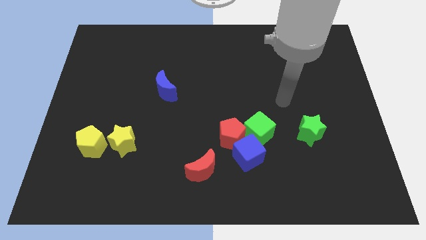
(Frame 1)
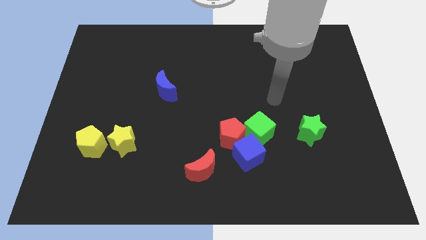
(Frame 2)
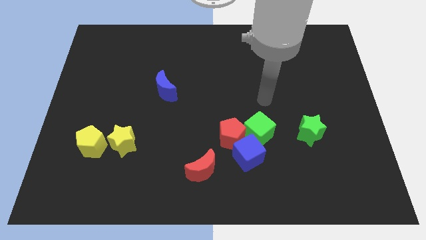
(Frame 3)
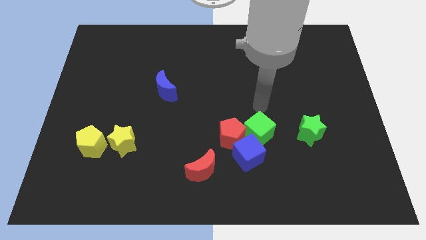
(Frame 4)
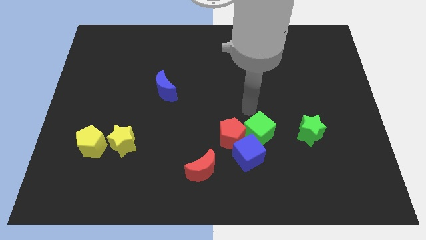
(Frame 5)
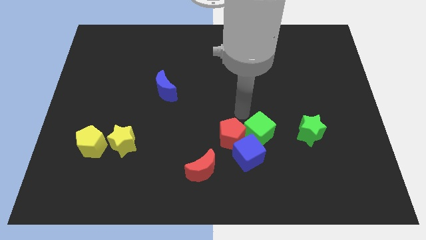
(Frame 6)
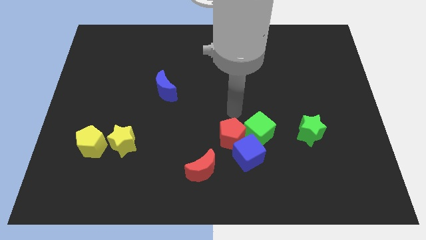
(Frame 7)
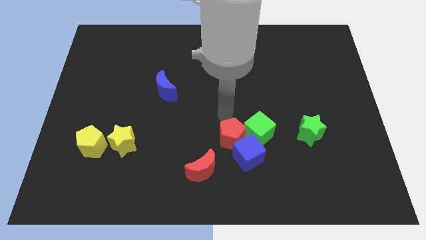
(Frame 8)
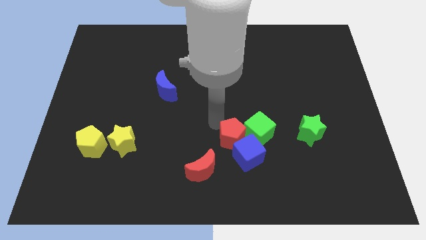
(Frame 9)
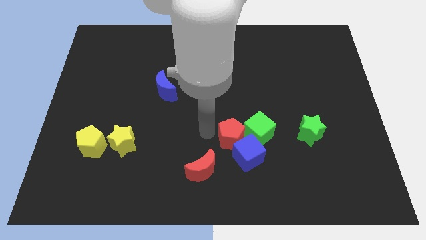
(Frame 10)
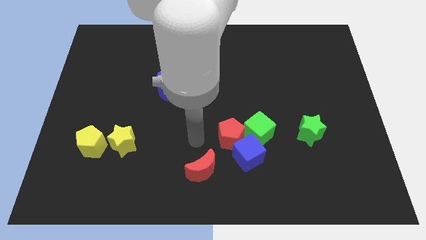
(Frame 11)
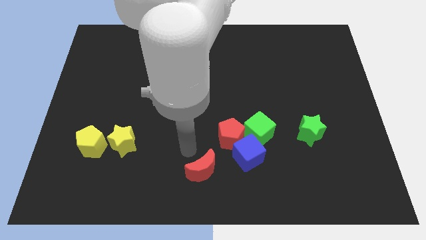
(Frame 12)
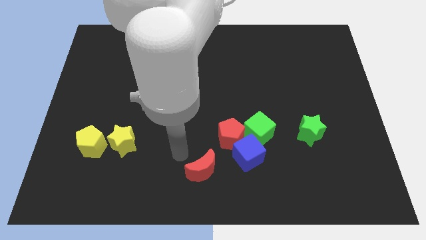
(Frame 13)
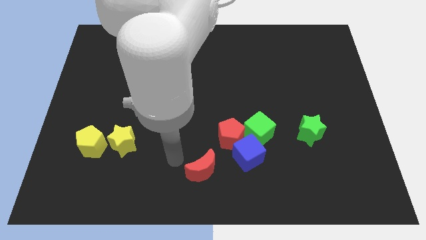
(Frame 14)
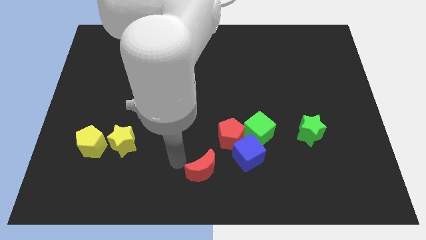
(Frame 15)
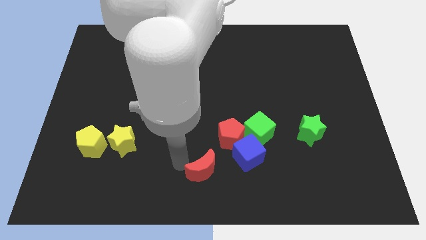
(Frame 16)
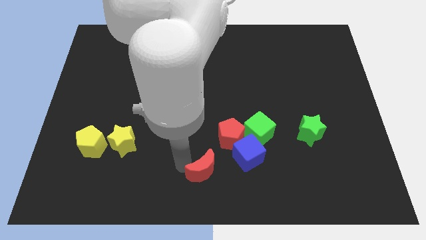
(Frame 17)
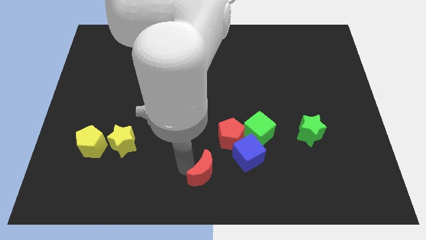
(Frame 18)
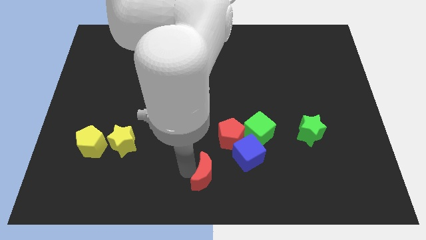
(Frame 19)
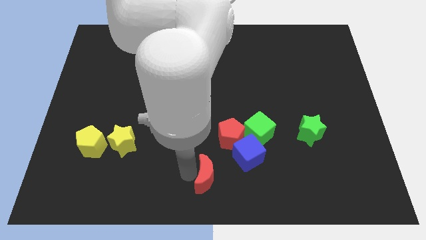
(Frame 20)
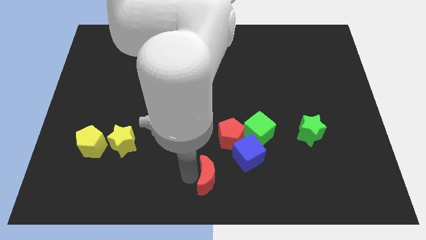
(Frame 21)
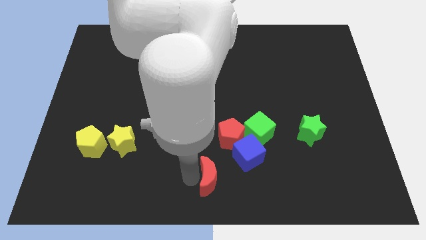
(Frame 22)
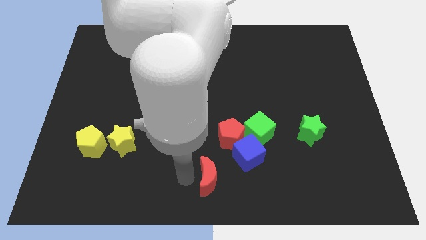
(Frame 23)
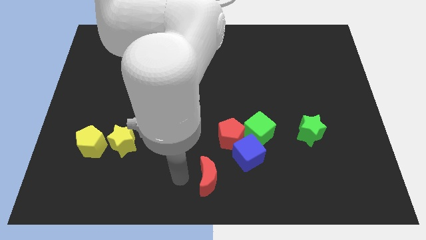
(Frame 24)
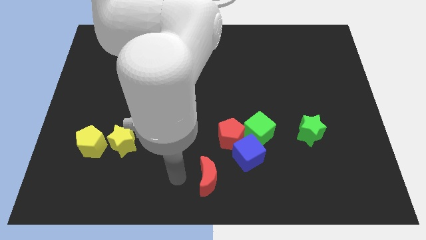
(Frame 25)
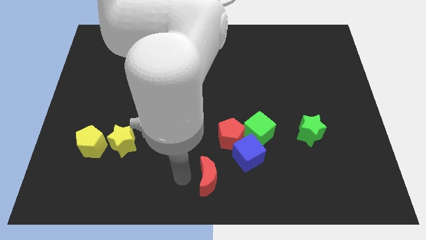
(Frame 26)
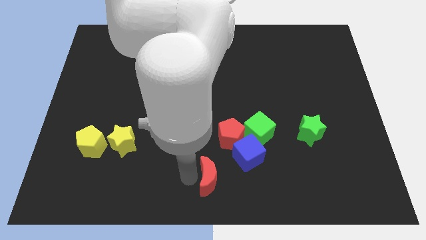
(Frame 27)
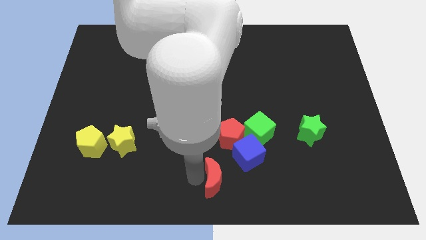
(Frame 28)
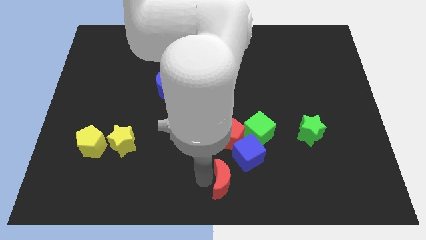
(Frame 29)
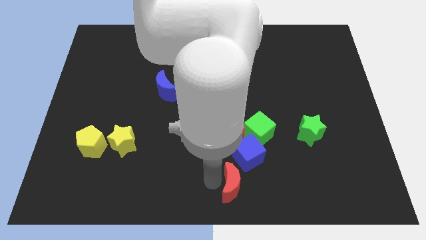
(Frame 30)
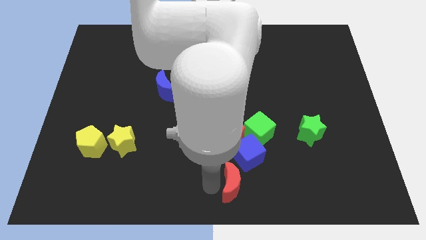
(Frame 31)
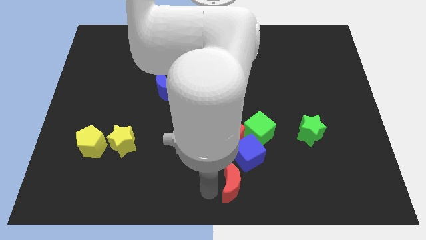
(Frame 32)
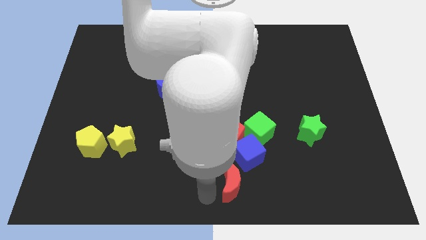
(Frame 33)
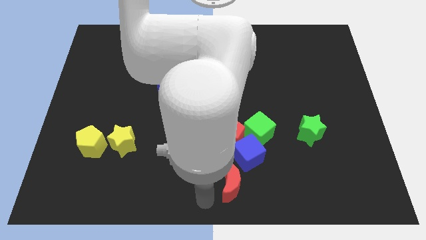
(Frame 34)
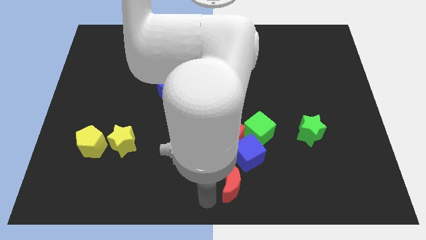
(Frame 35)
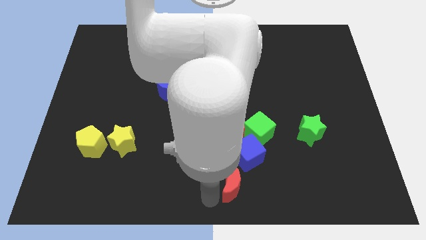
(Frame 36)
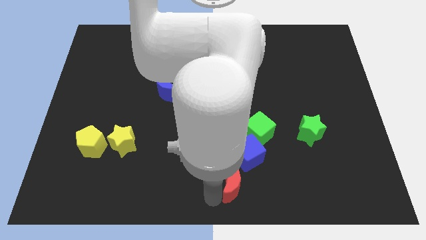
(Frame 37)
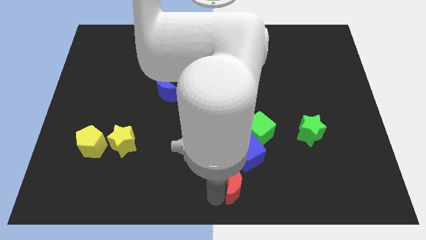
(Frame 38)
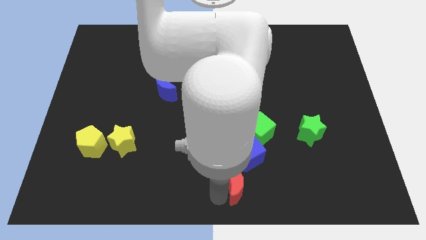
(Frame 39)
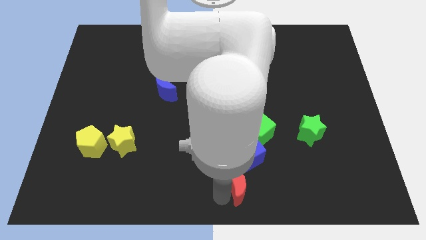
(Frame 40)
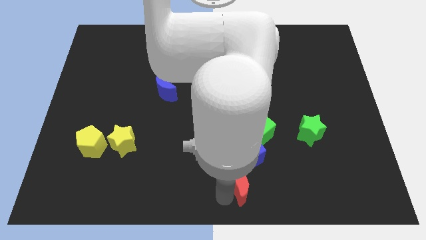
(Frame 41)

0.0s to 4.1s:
push the red moon right a little

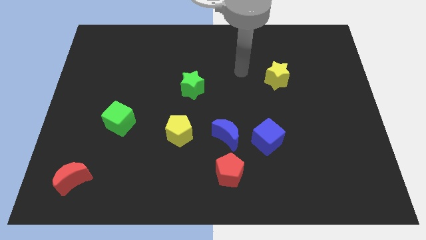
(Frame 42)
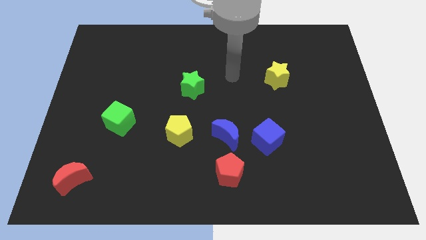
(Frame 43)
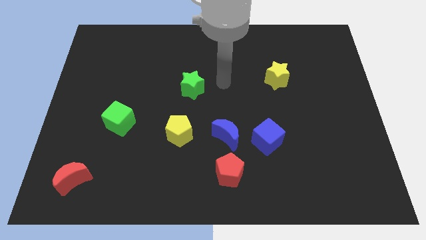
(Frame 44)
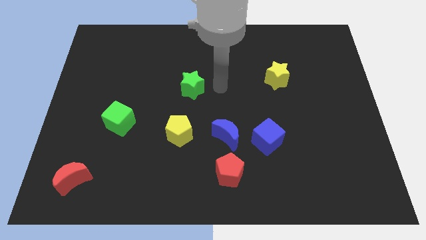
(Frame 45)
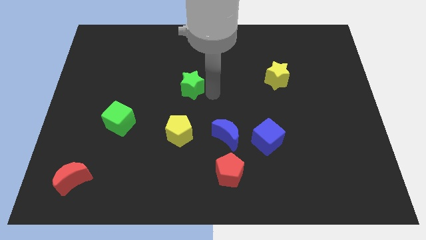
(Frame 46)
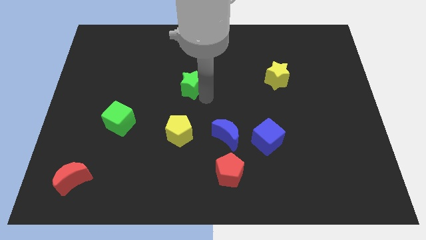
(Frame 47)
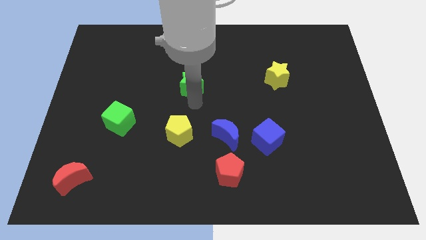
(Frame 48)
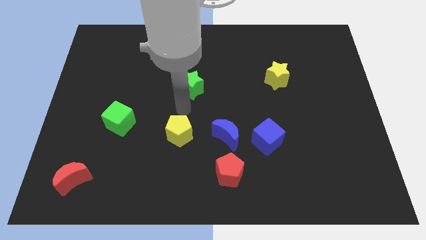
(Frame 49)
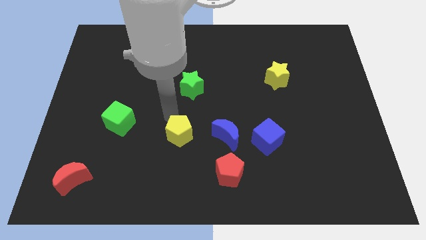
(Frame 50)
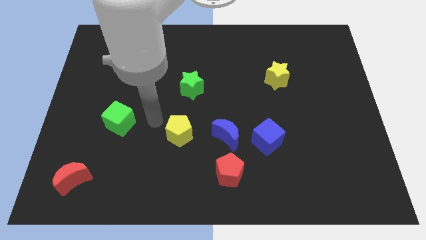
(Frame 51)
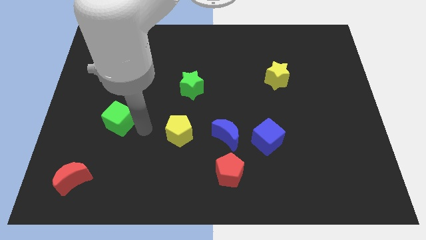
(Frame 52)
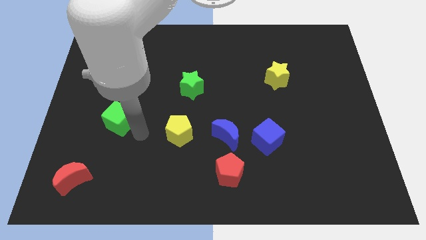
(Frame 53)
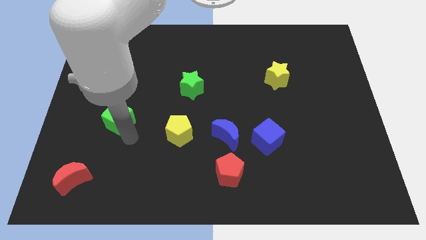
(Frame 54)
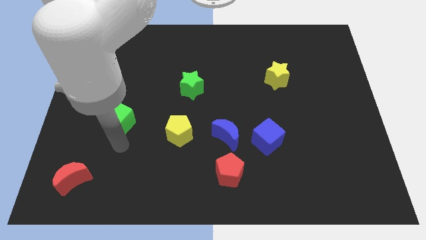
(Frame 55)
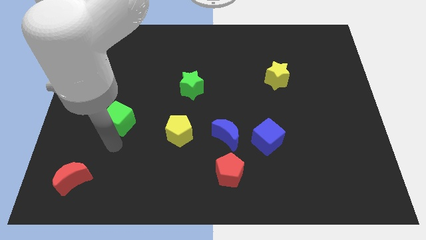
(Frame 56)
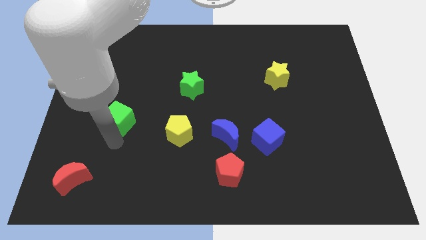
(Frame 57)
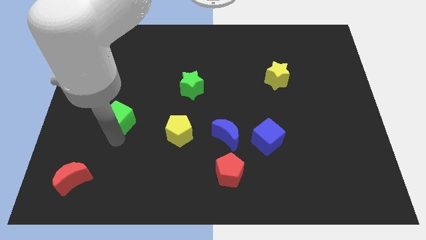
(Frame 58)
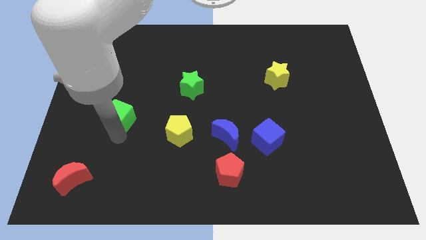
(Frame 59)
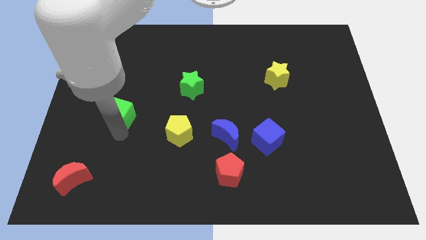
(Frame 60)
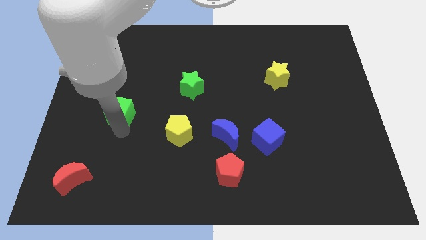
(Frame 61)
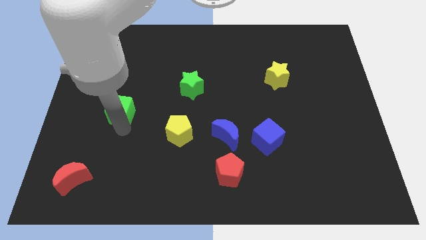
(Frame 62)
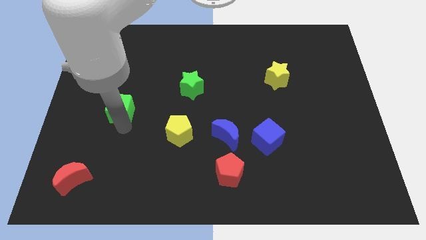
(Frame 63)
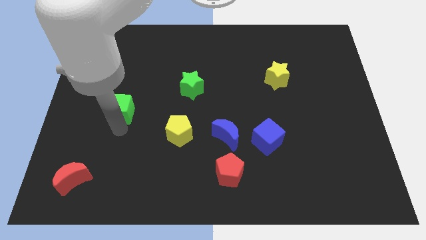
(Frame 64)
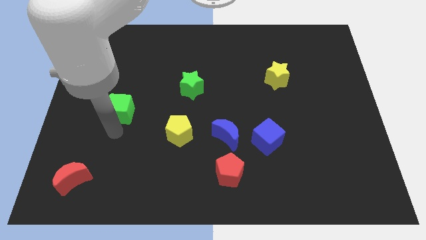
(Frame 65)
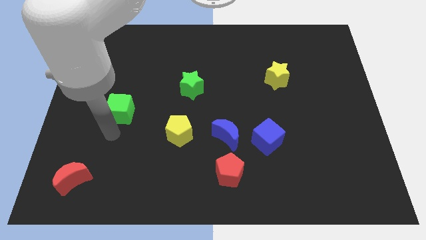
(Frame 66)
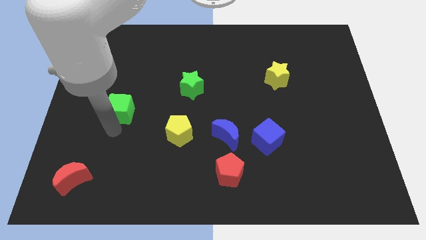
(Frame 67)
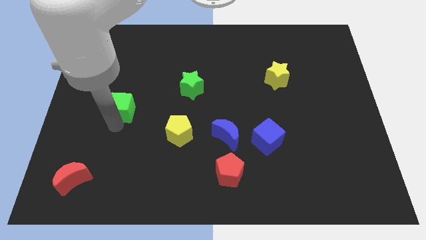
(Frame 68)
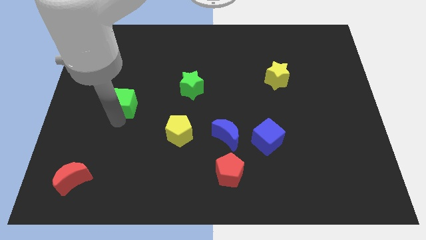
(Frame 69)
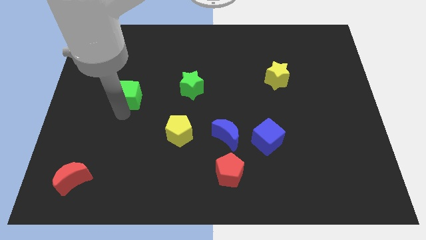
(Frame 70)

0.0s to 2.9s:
slide the green cube upwards slightly

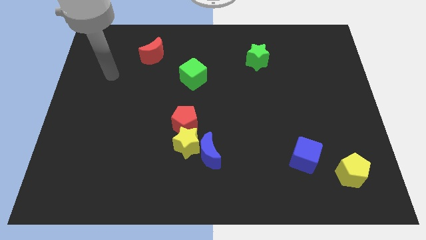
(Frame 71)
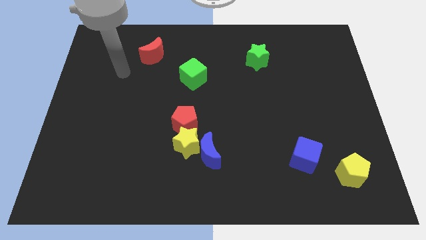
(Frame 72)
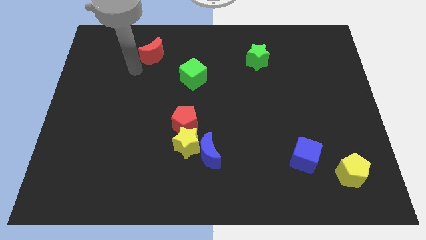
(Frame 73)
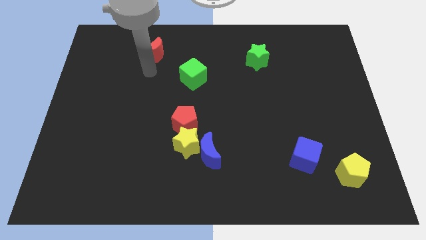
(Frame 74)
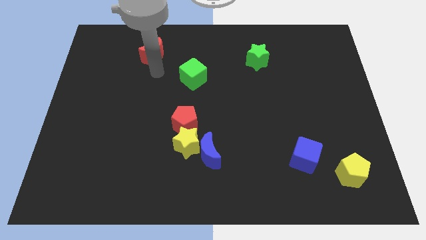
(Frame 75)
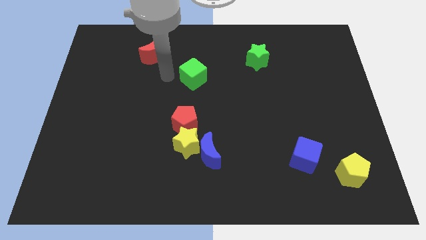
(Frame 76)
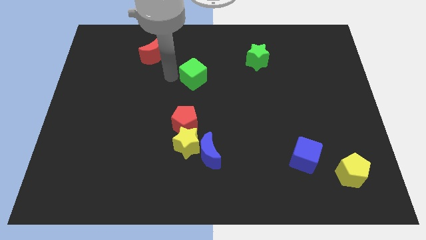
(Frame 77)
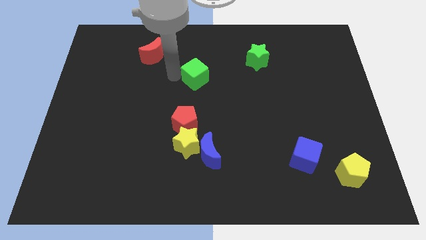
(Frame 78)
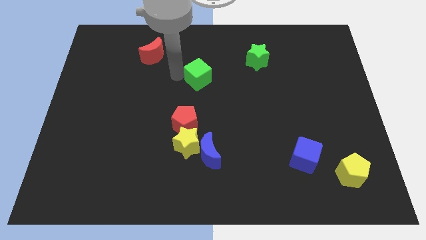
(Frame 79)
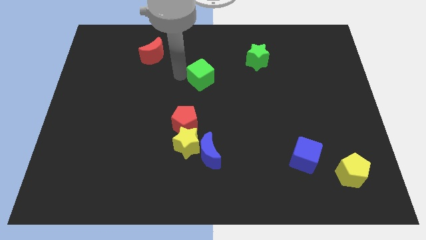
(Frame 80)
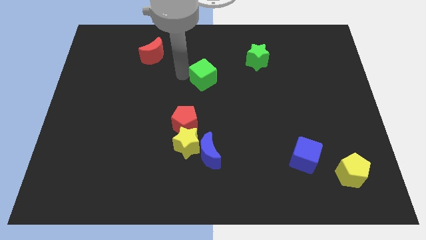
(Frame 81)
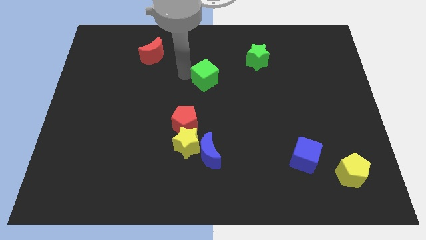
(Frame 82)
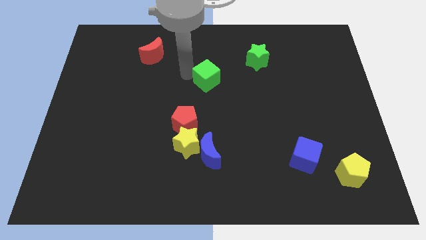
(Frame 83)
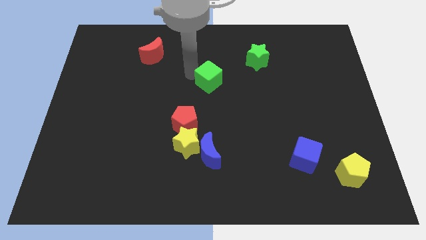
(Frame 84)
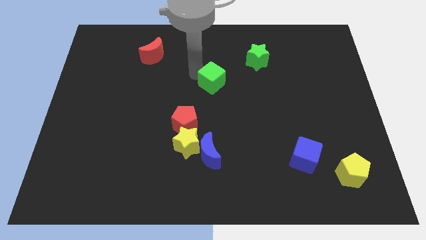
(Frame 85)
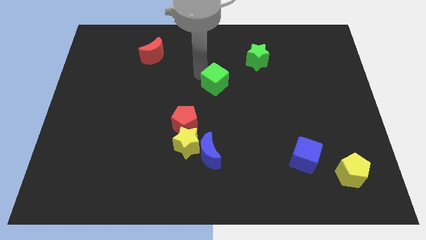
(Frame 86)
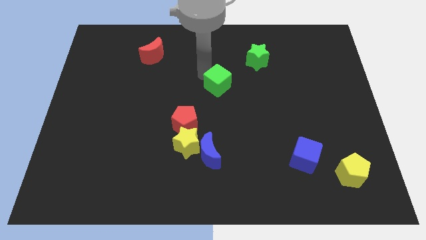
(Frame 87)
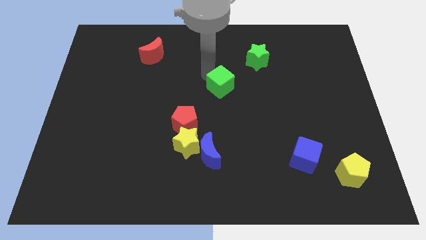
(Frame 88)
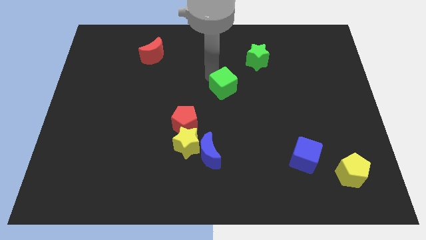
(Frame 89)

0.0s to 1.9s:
slightly push the green cube right
